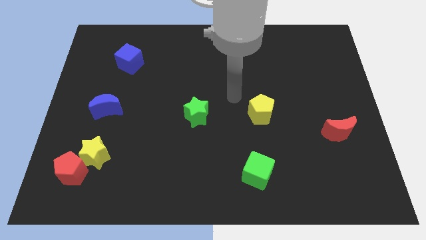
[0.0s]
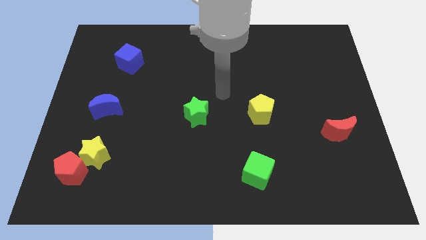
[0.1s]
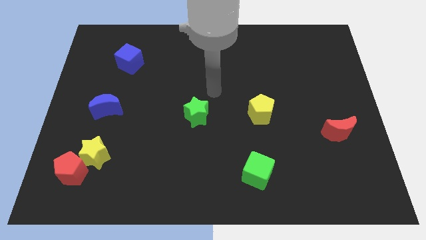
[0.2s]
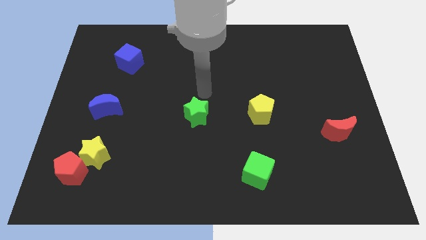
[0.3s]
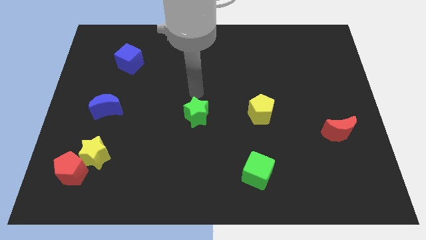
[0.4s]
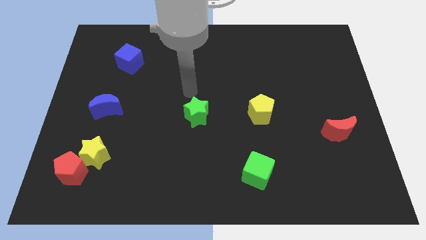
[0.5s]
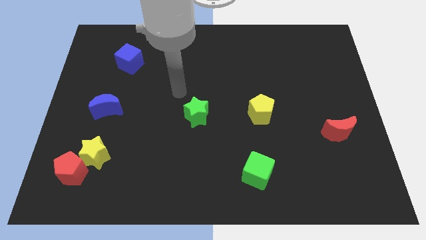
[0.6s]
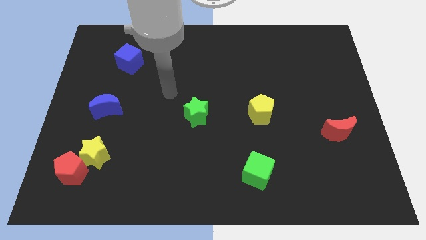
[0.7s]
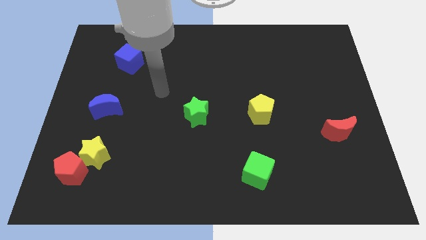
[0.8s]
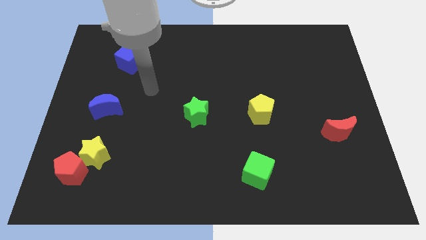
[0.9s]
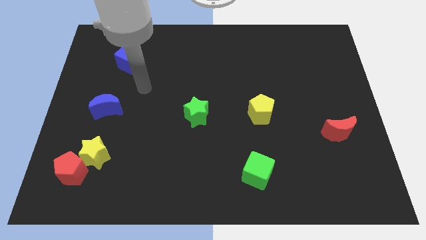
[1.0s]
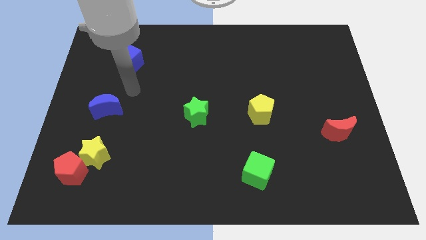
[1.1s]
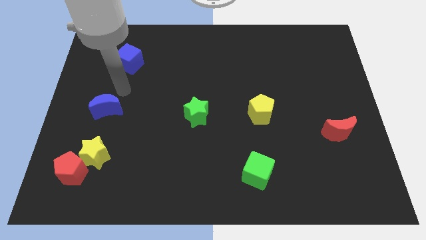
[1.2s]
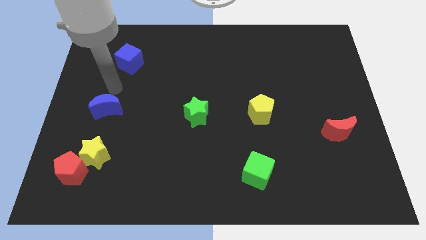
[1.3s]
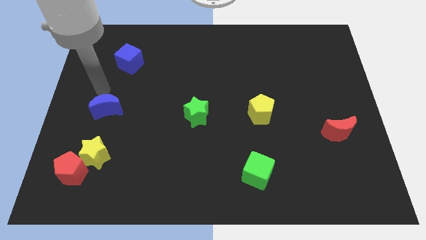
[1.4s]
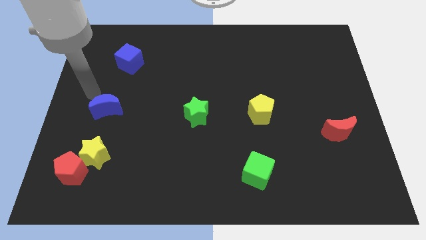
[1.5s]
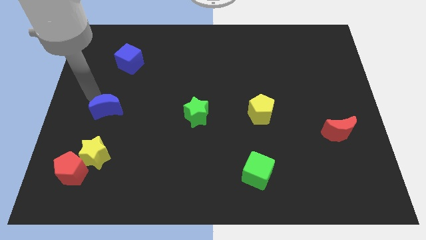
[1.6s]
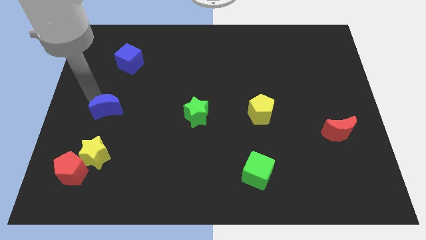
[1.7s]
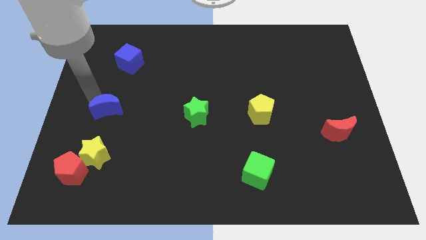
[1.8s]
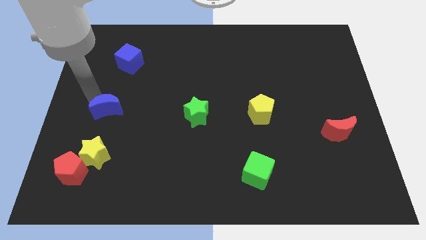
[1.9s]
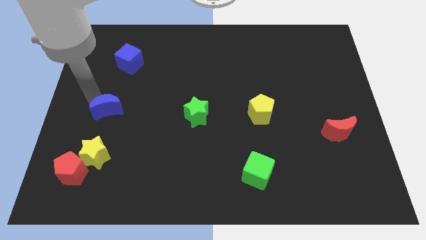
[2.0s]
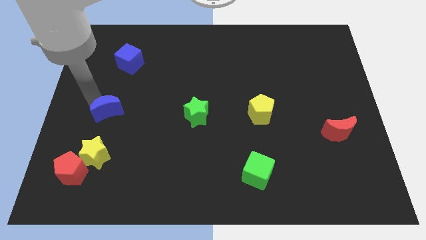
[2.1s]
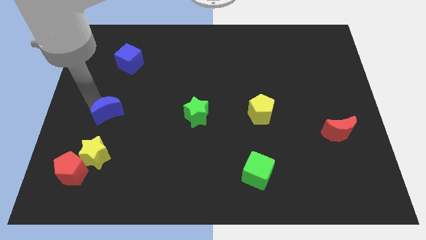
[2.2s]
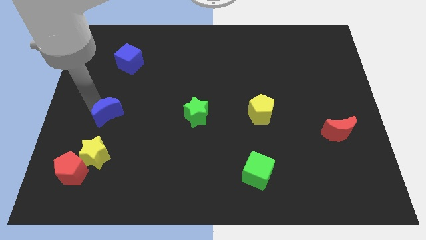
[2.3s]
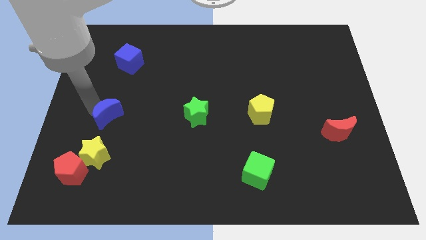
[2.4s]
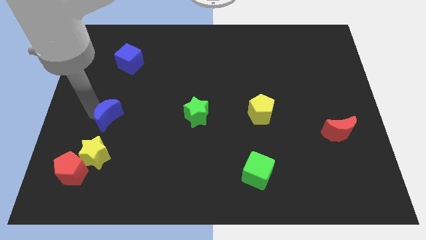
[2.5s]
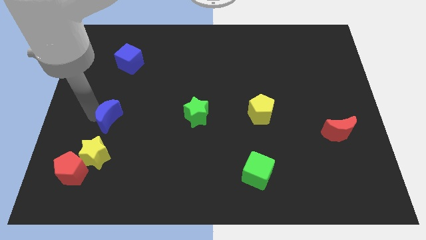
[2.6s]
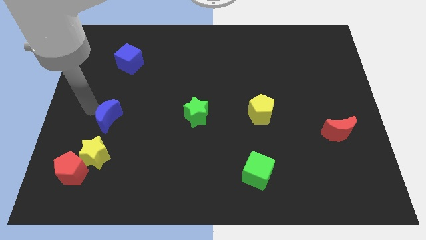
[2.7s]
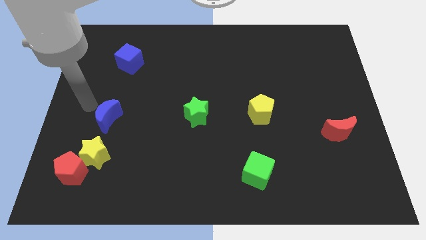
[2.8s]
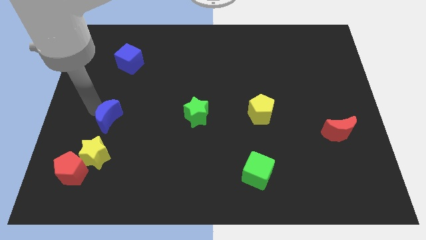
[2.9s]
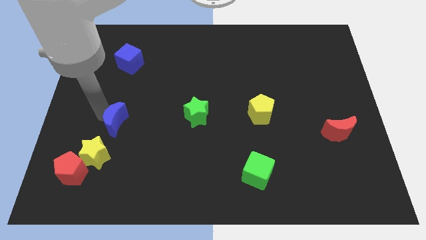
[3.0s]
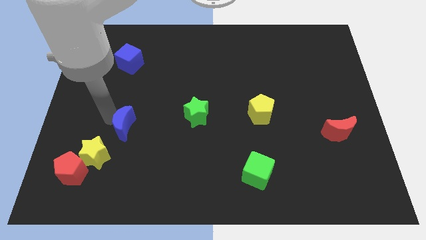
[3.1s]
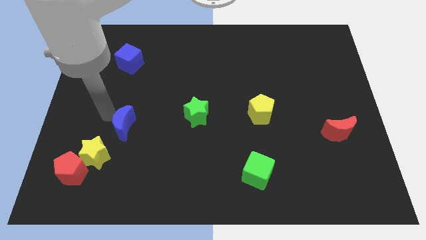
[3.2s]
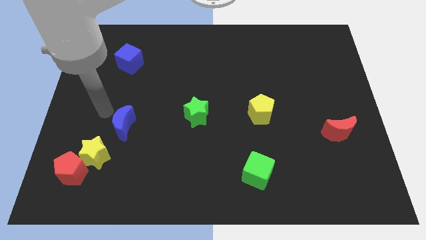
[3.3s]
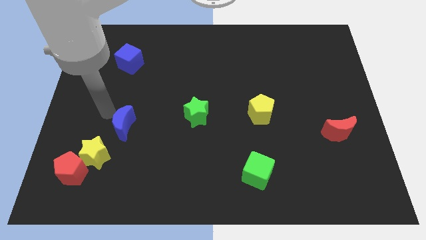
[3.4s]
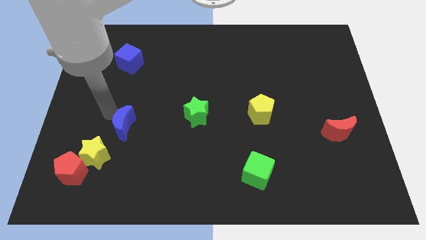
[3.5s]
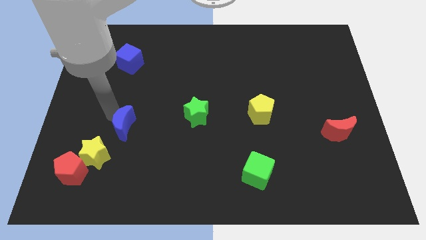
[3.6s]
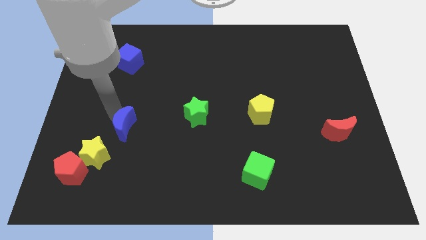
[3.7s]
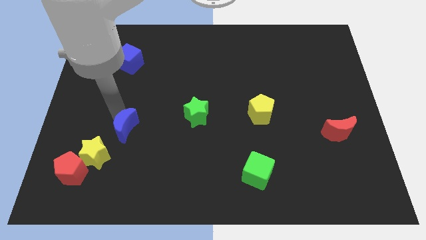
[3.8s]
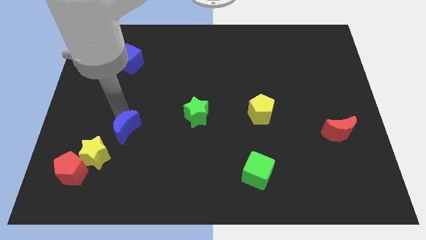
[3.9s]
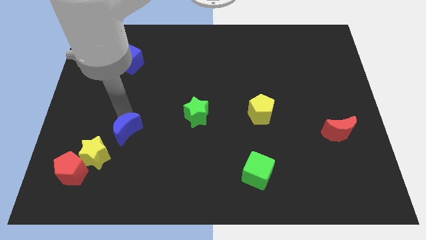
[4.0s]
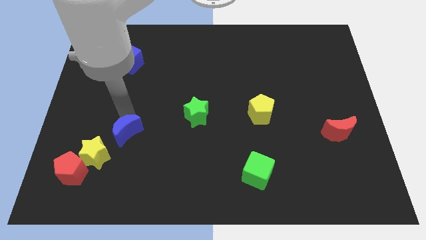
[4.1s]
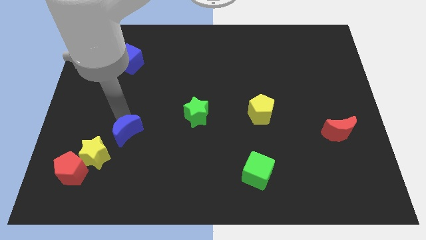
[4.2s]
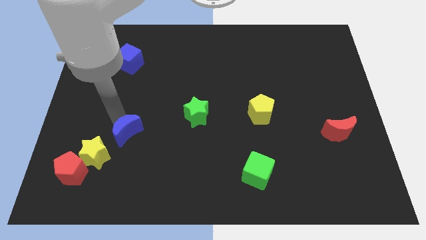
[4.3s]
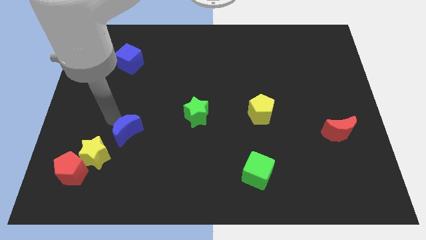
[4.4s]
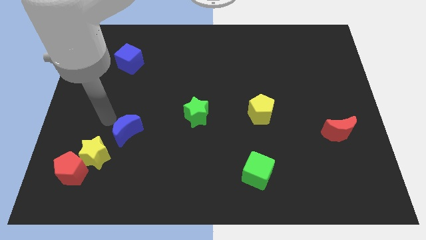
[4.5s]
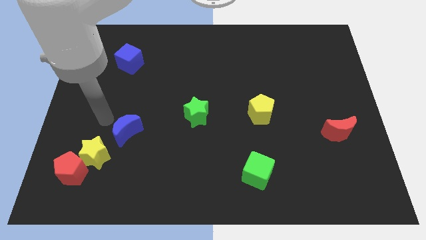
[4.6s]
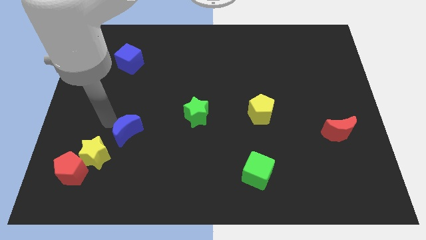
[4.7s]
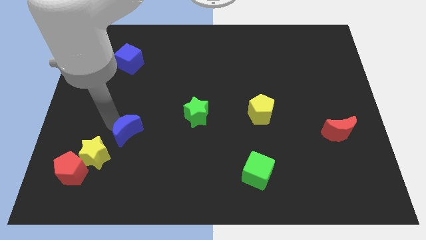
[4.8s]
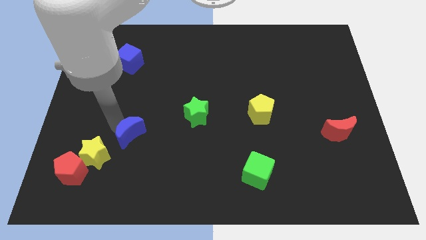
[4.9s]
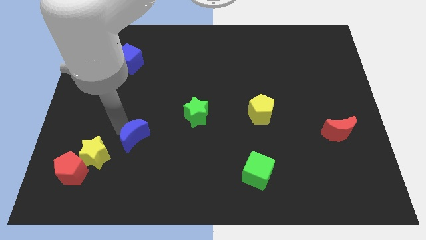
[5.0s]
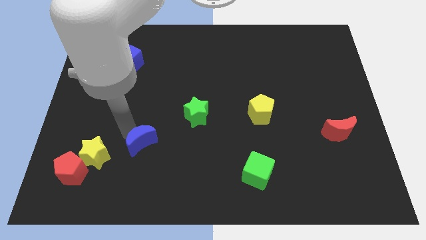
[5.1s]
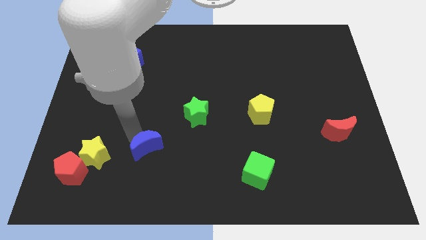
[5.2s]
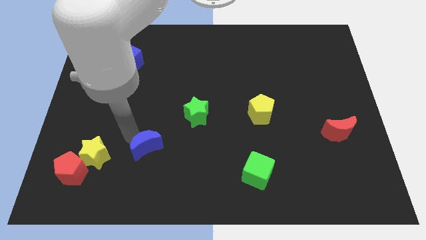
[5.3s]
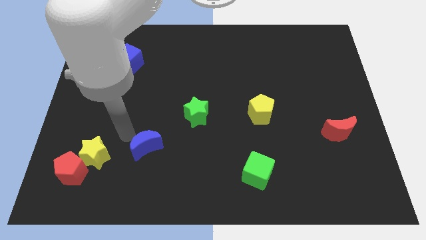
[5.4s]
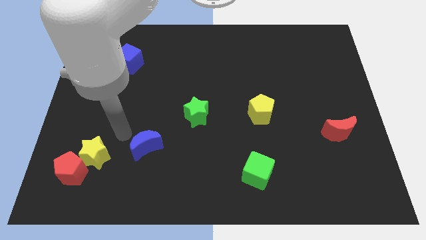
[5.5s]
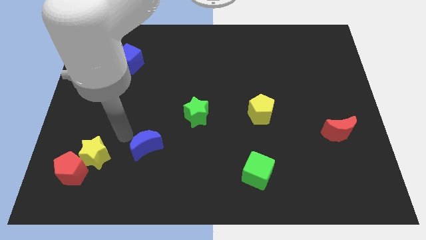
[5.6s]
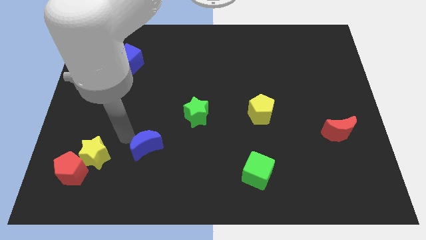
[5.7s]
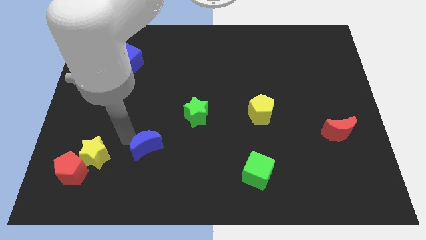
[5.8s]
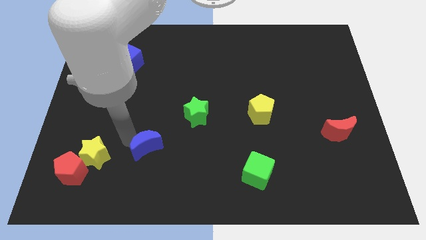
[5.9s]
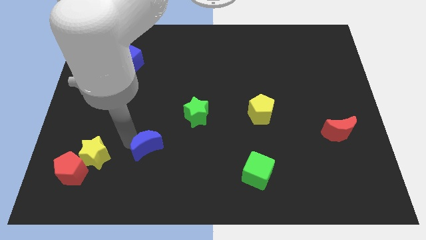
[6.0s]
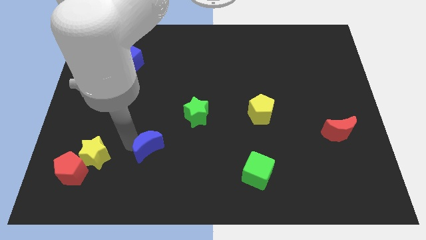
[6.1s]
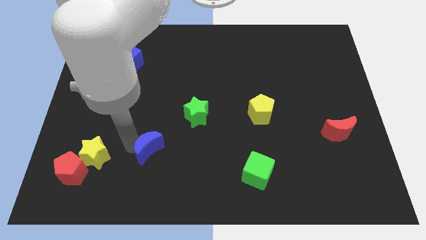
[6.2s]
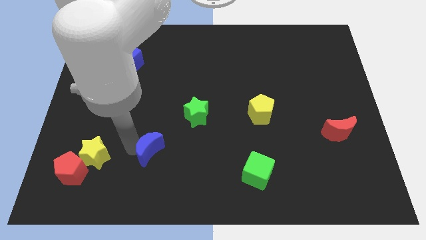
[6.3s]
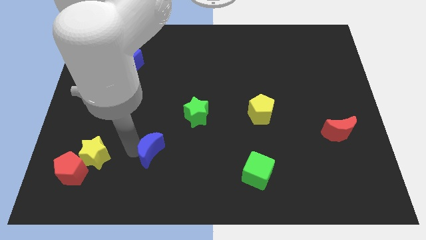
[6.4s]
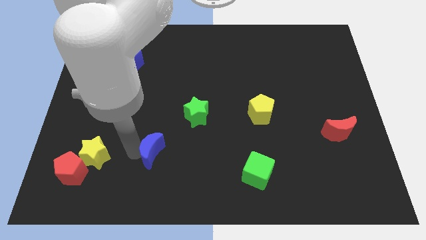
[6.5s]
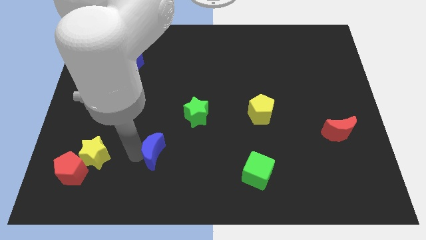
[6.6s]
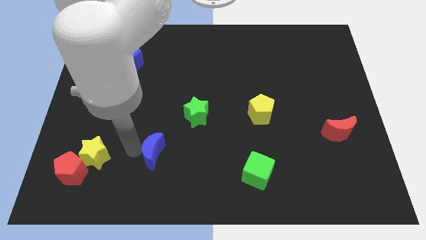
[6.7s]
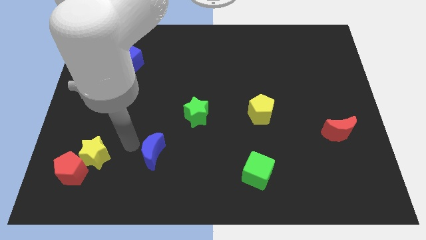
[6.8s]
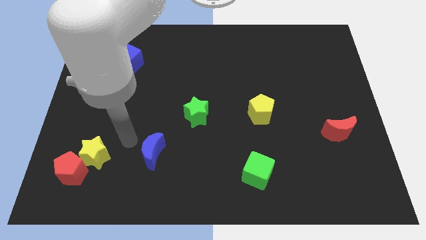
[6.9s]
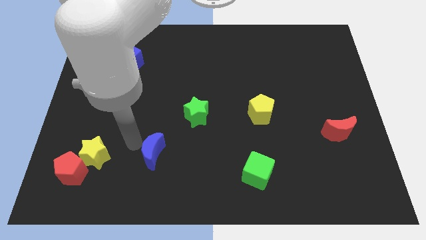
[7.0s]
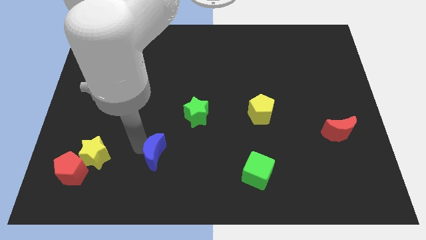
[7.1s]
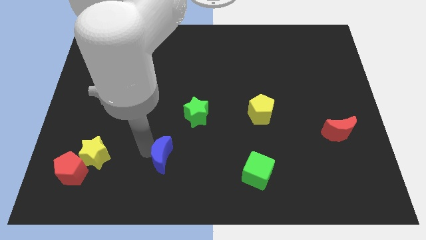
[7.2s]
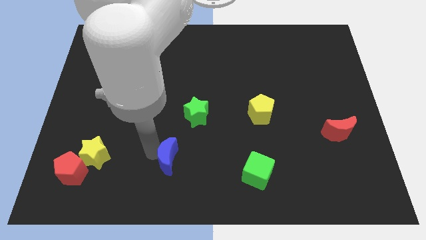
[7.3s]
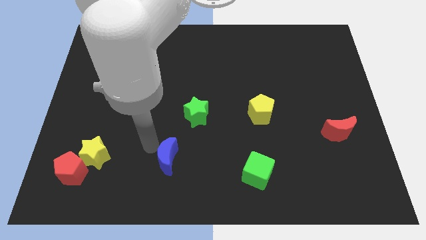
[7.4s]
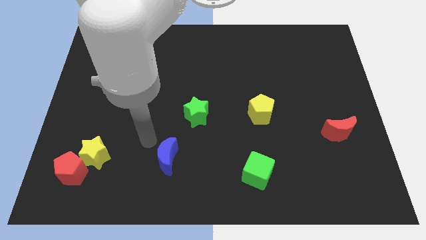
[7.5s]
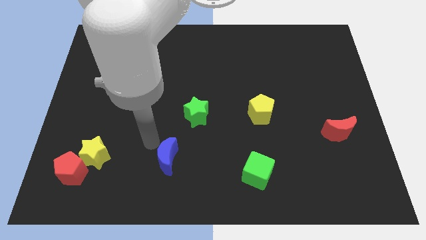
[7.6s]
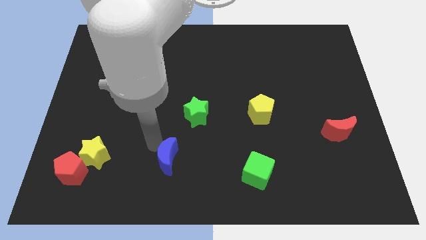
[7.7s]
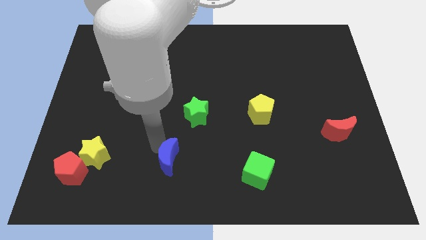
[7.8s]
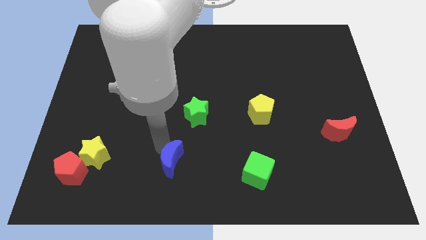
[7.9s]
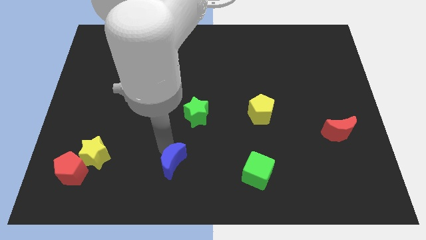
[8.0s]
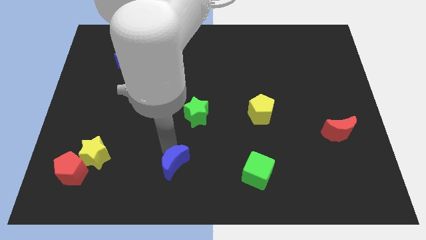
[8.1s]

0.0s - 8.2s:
put the blue moon to the bottom
